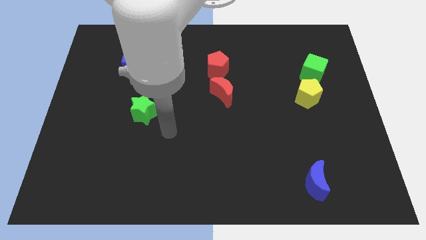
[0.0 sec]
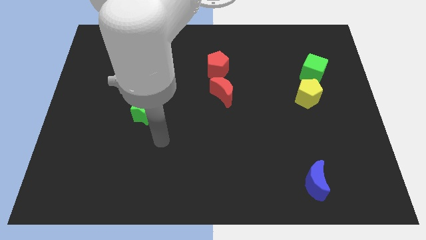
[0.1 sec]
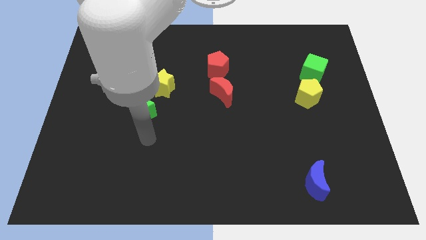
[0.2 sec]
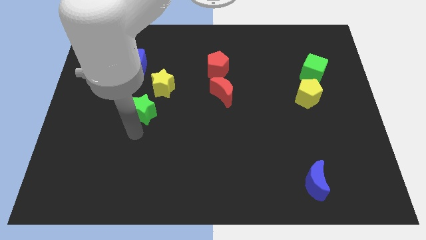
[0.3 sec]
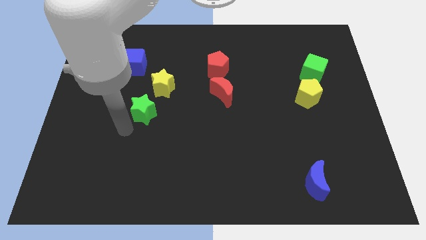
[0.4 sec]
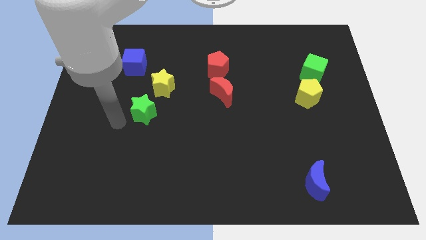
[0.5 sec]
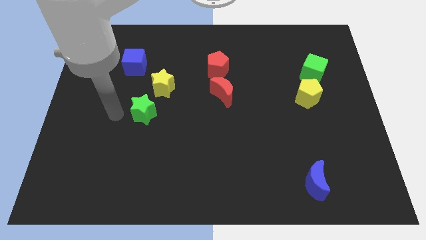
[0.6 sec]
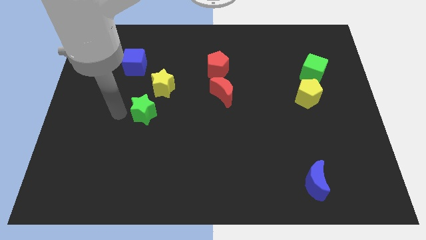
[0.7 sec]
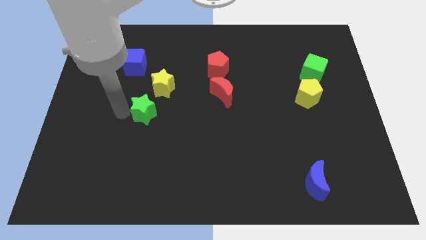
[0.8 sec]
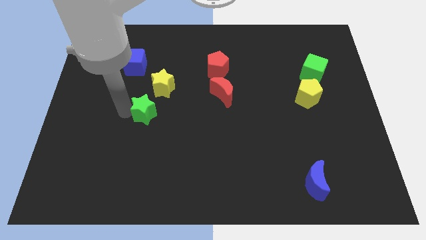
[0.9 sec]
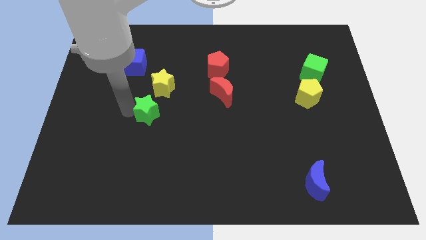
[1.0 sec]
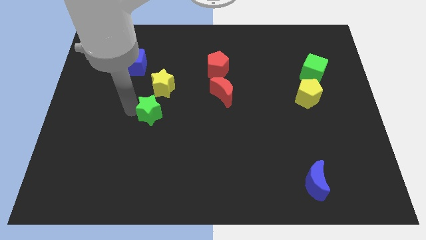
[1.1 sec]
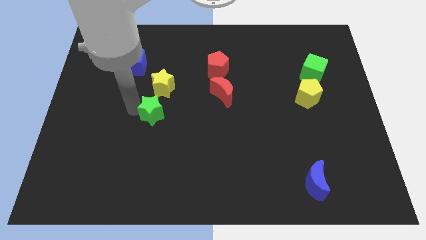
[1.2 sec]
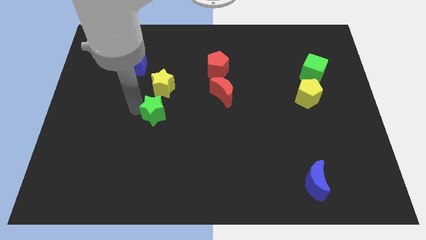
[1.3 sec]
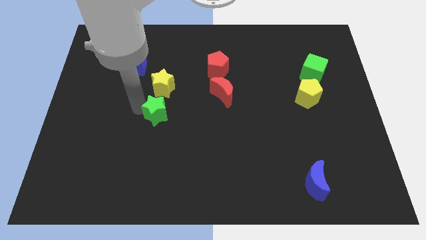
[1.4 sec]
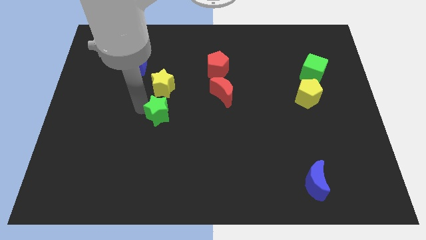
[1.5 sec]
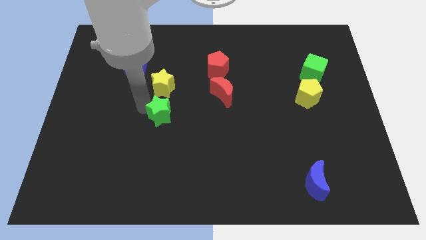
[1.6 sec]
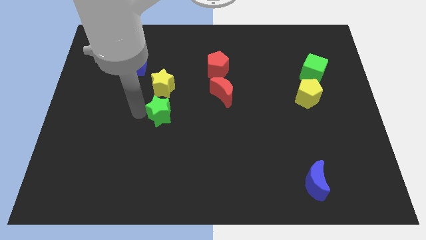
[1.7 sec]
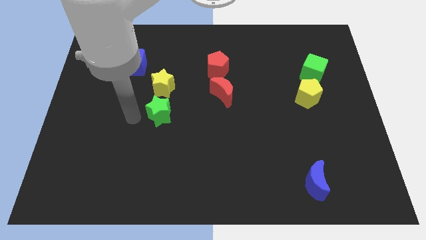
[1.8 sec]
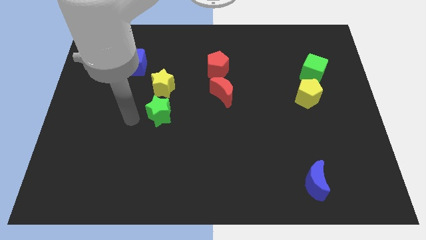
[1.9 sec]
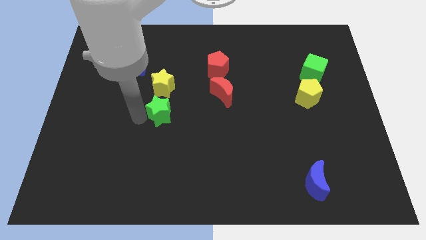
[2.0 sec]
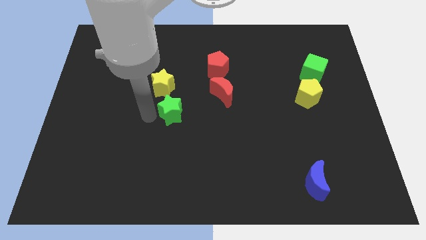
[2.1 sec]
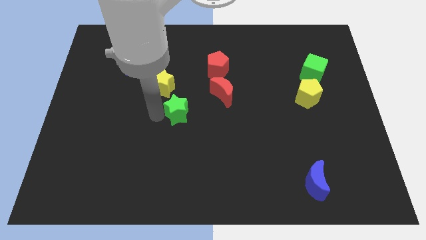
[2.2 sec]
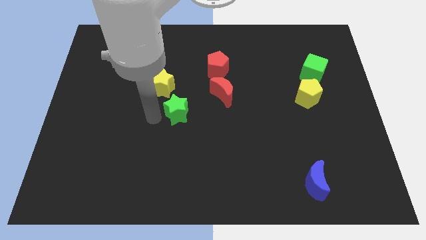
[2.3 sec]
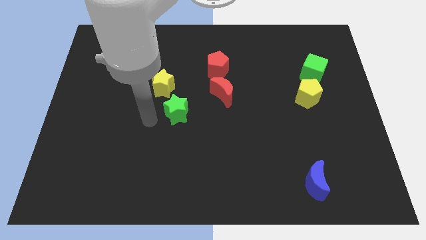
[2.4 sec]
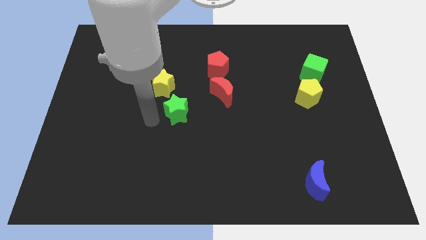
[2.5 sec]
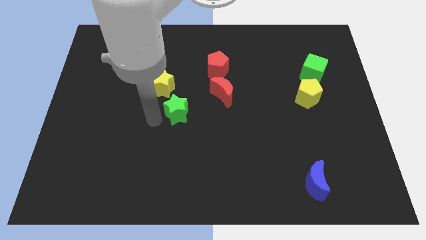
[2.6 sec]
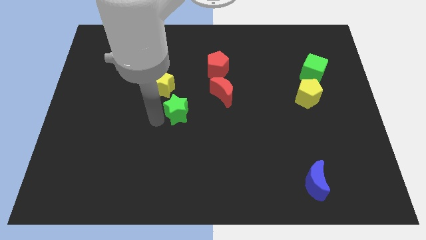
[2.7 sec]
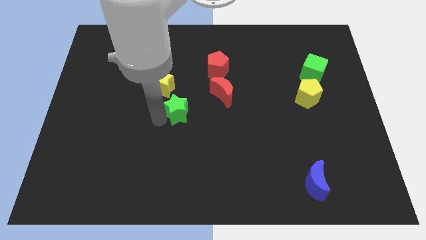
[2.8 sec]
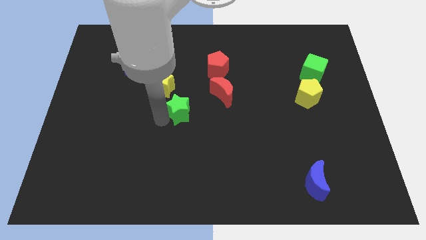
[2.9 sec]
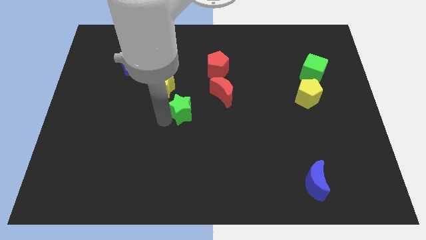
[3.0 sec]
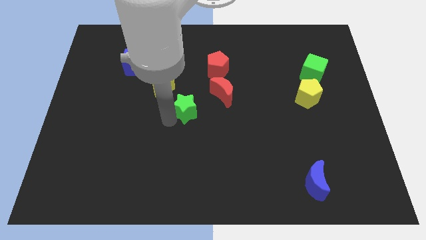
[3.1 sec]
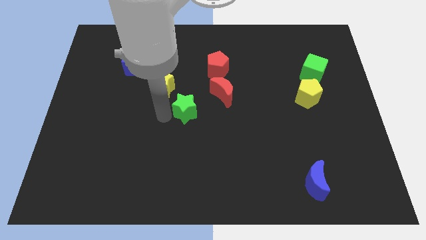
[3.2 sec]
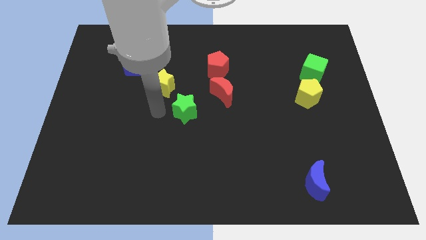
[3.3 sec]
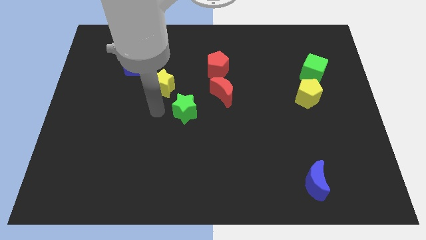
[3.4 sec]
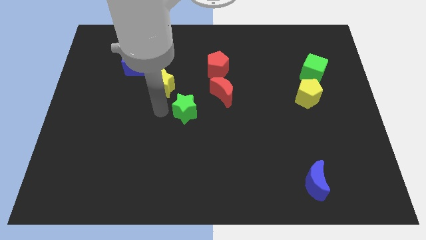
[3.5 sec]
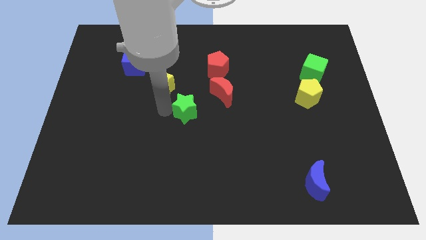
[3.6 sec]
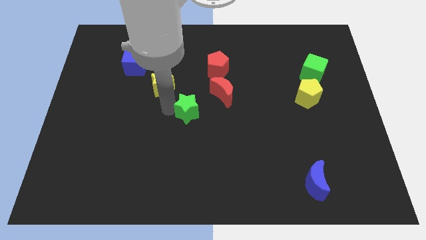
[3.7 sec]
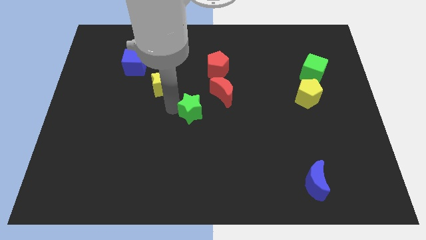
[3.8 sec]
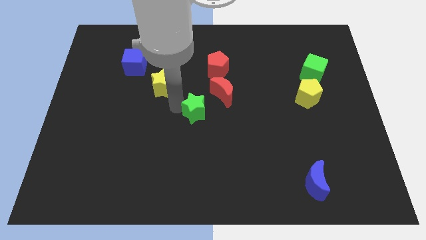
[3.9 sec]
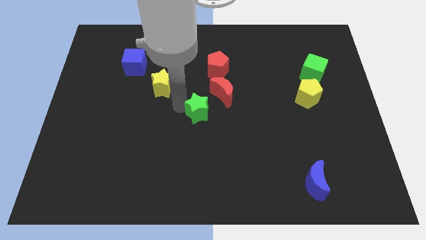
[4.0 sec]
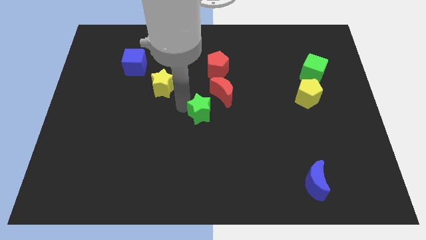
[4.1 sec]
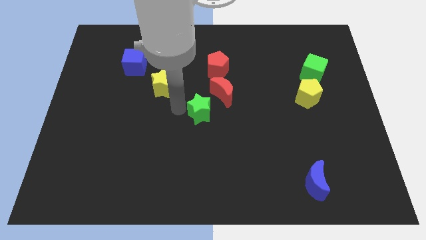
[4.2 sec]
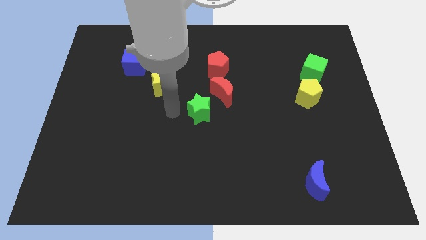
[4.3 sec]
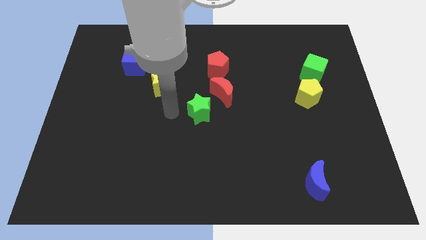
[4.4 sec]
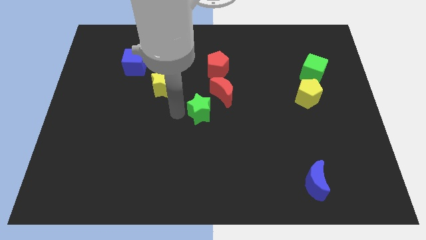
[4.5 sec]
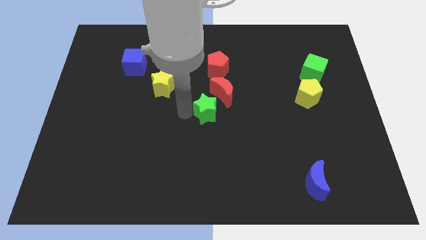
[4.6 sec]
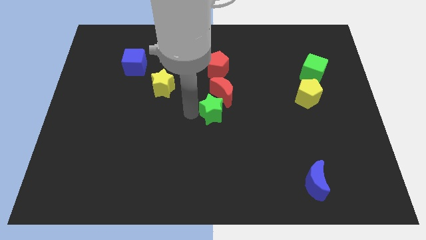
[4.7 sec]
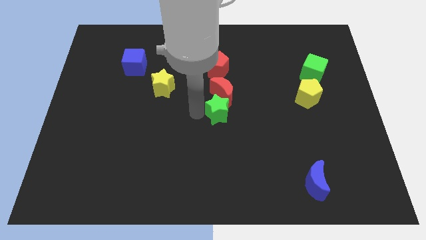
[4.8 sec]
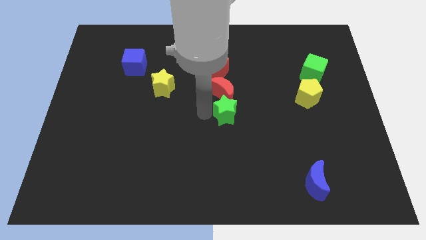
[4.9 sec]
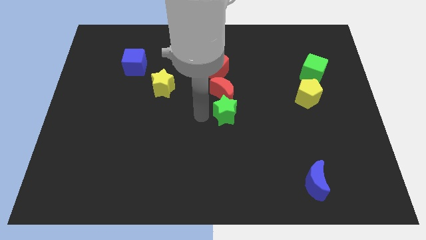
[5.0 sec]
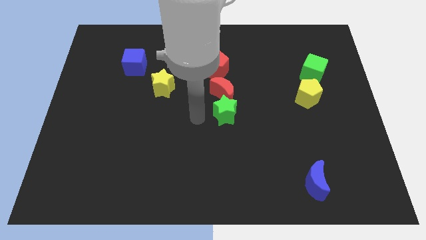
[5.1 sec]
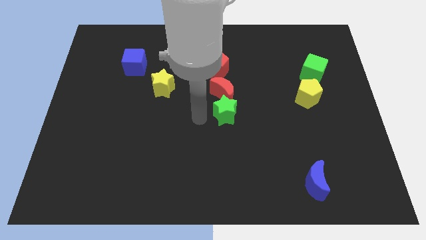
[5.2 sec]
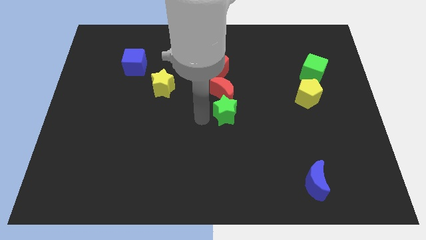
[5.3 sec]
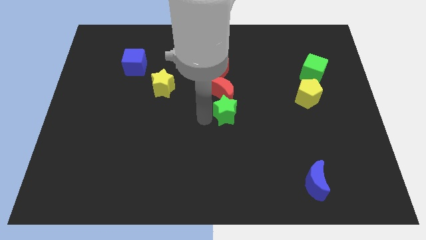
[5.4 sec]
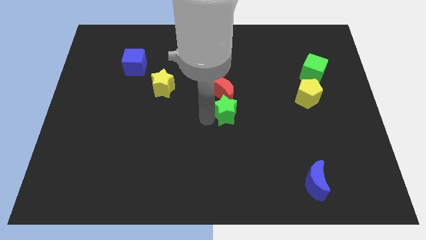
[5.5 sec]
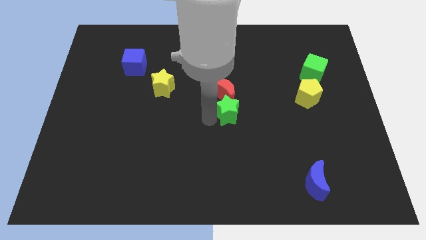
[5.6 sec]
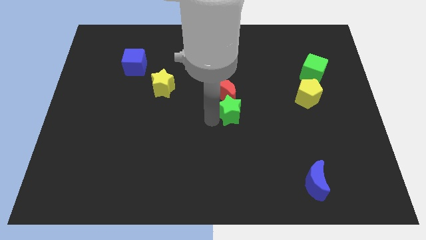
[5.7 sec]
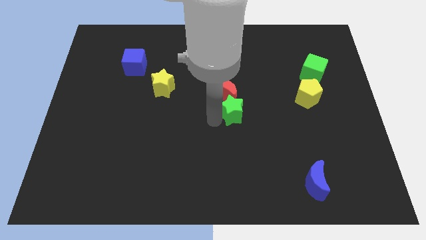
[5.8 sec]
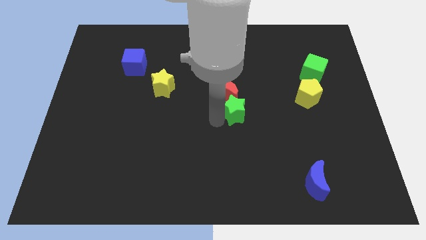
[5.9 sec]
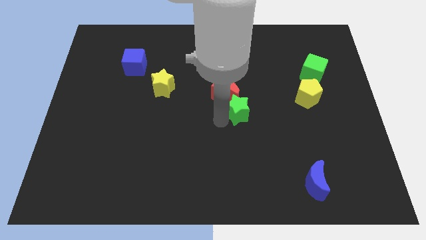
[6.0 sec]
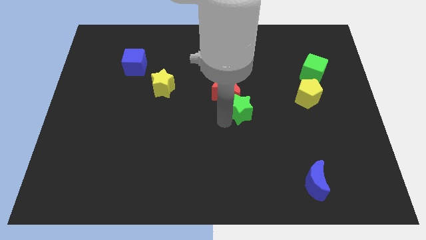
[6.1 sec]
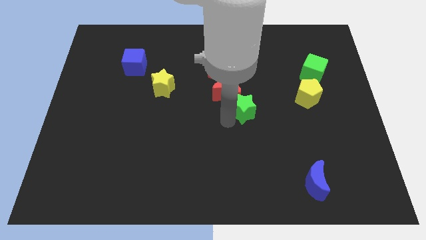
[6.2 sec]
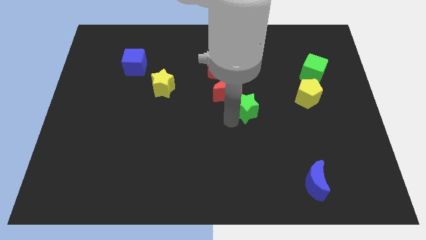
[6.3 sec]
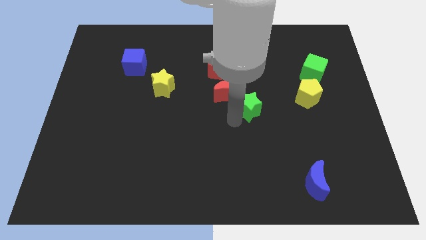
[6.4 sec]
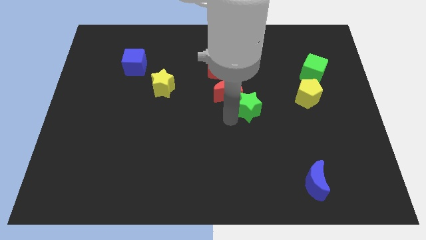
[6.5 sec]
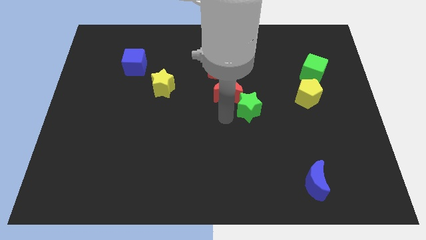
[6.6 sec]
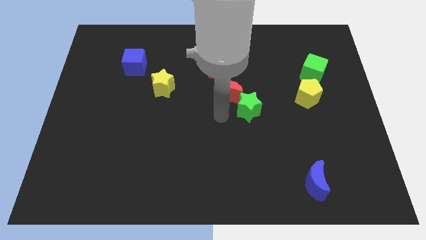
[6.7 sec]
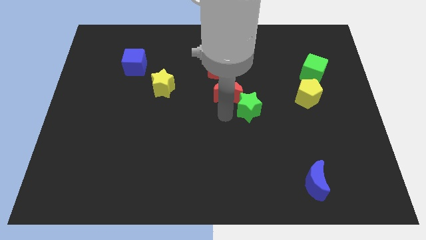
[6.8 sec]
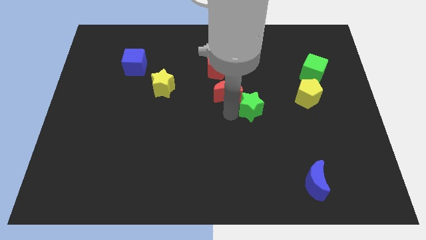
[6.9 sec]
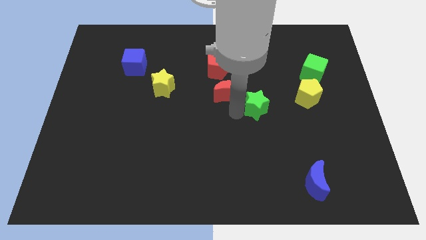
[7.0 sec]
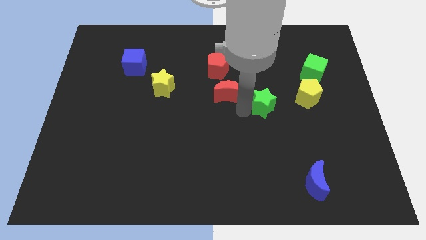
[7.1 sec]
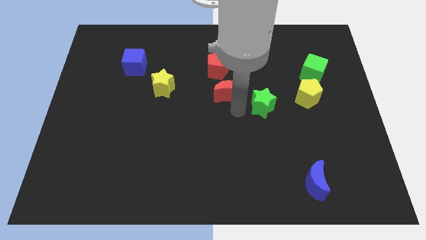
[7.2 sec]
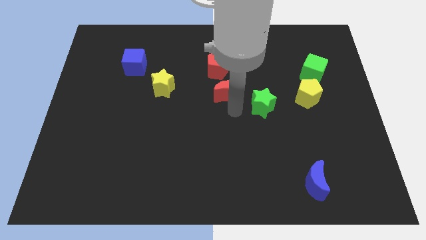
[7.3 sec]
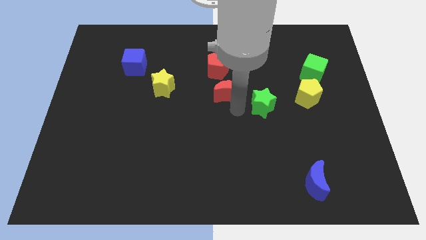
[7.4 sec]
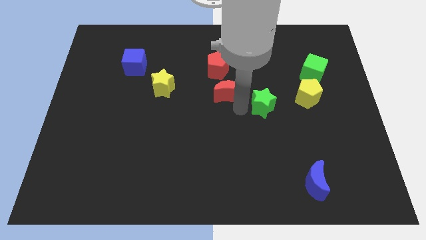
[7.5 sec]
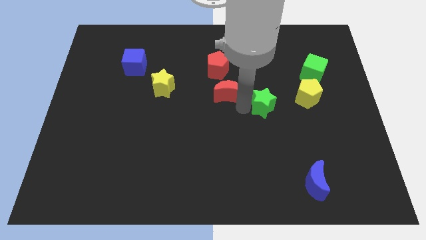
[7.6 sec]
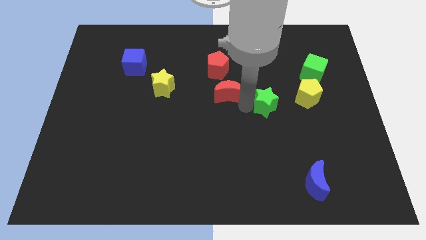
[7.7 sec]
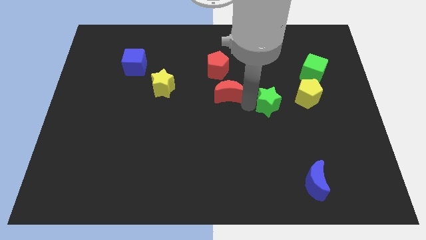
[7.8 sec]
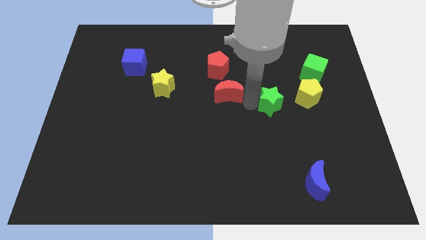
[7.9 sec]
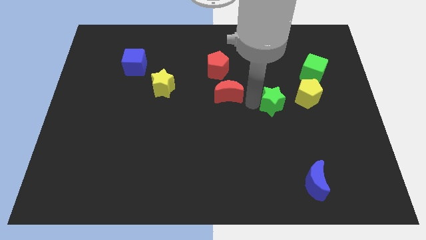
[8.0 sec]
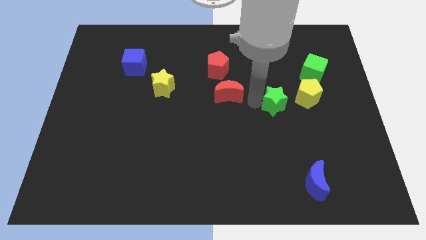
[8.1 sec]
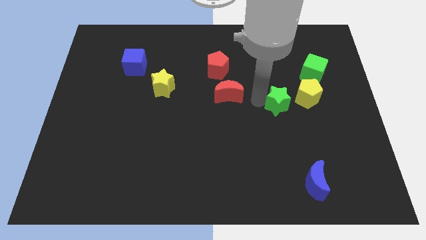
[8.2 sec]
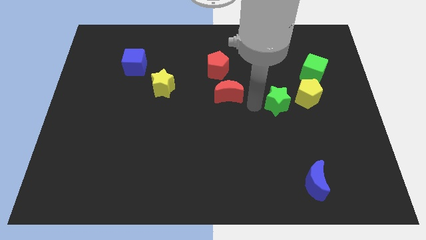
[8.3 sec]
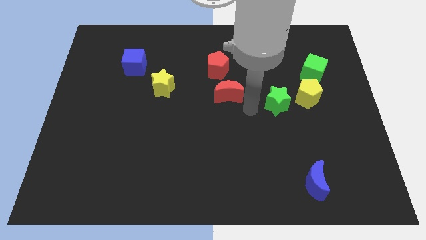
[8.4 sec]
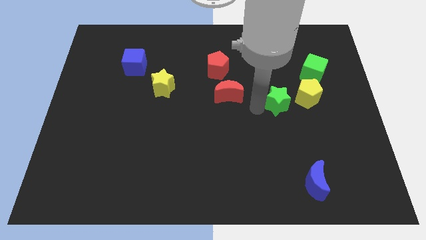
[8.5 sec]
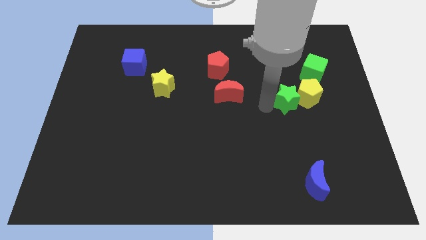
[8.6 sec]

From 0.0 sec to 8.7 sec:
move the green star to the yellow pentagon
